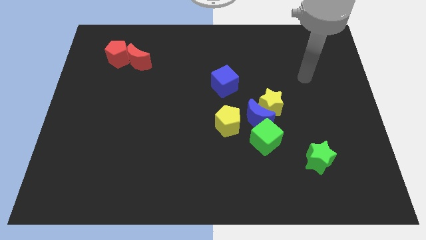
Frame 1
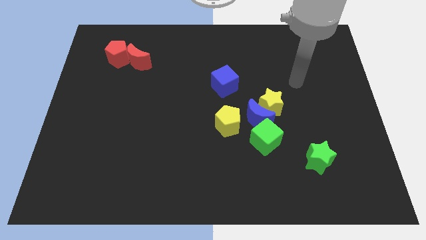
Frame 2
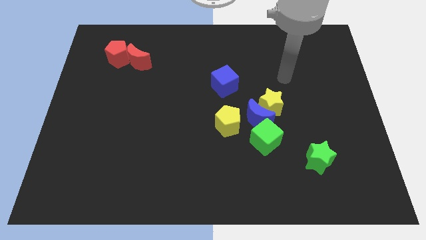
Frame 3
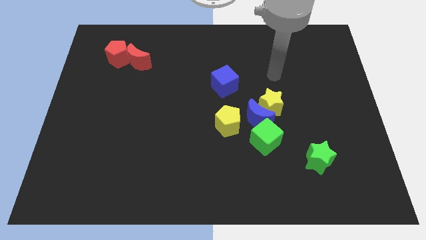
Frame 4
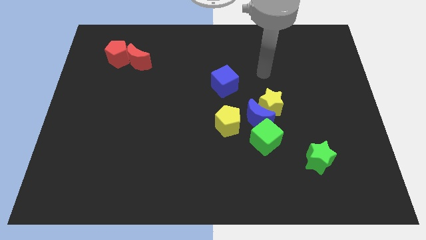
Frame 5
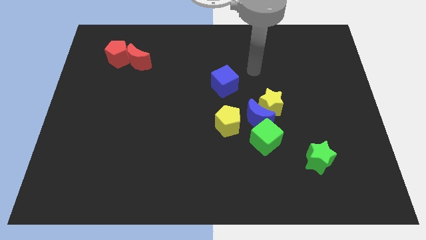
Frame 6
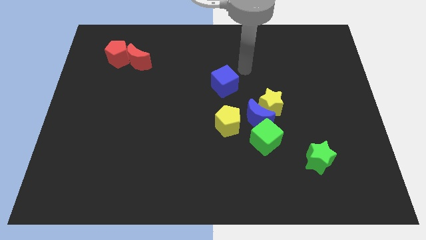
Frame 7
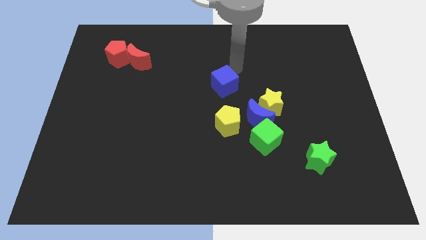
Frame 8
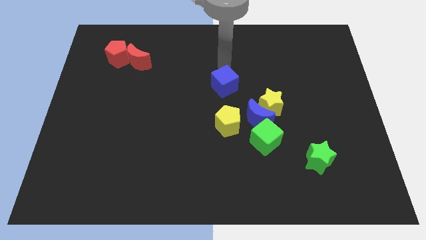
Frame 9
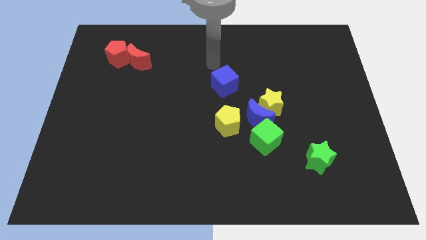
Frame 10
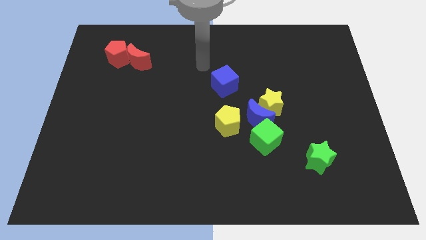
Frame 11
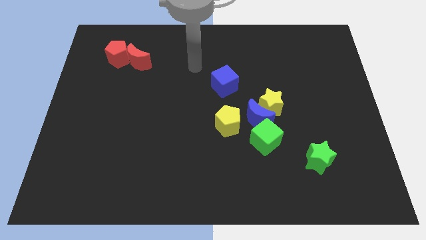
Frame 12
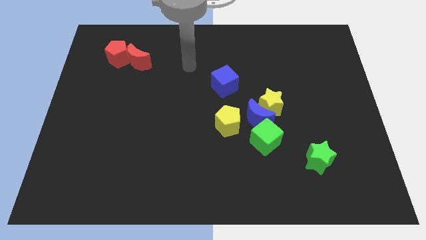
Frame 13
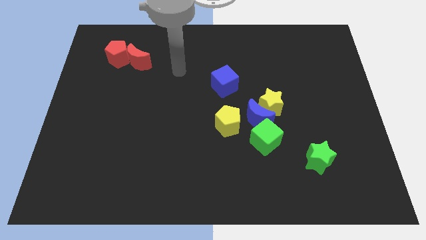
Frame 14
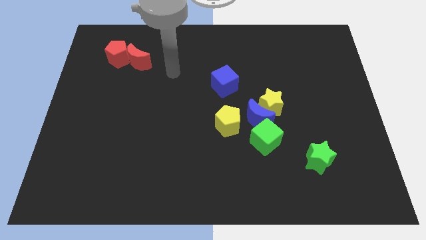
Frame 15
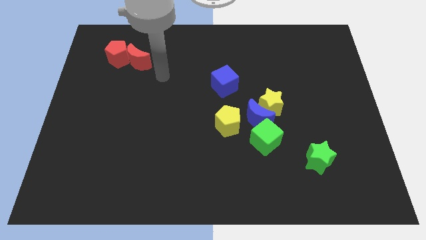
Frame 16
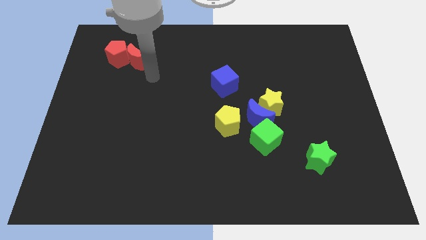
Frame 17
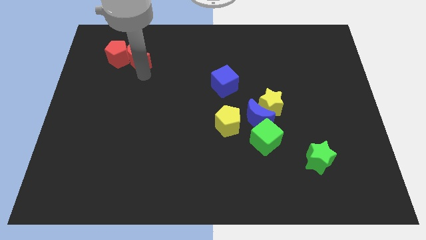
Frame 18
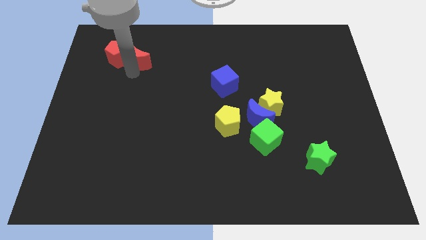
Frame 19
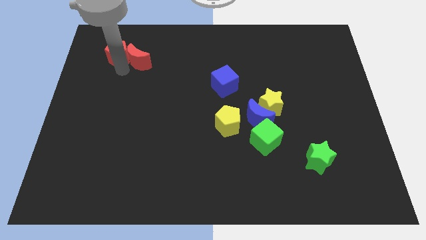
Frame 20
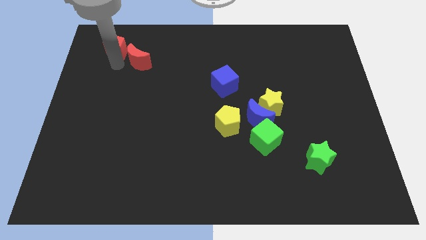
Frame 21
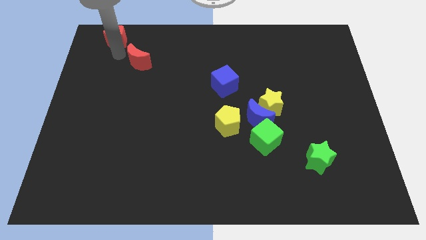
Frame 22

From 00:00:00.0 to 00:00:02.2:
separate the red moon from the red pentagon

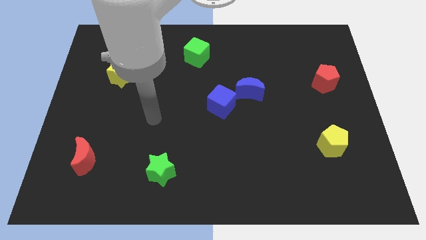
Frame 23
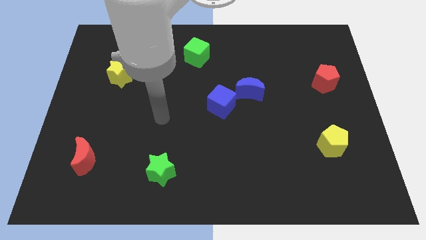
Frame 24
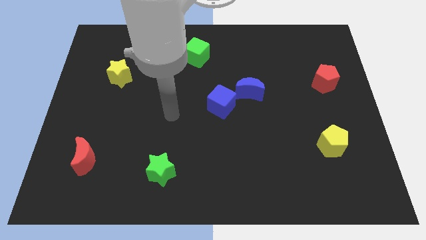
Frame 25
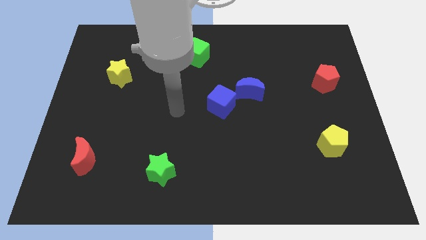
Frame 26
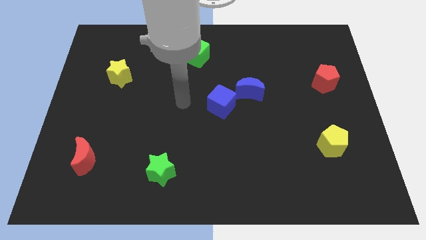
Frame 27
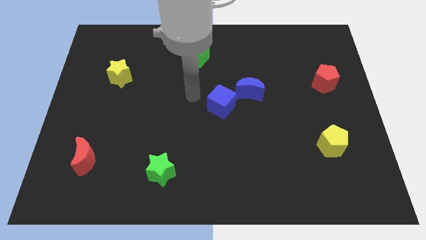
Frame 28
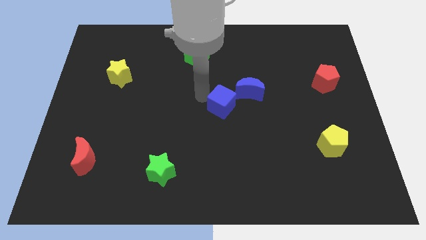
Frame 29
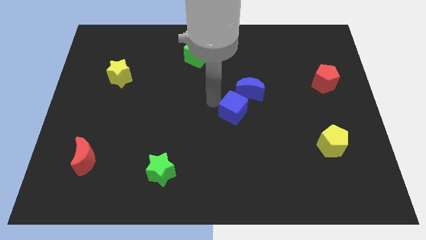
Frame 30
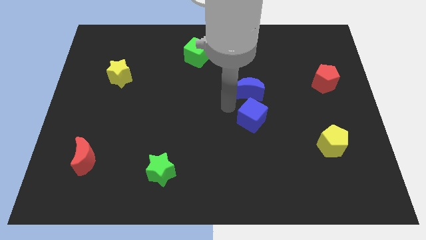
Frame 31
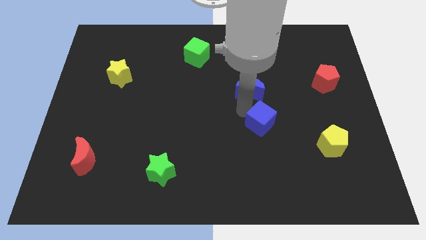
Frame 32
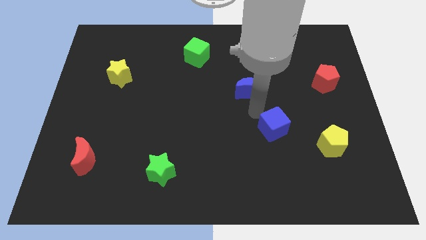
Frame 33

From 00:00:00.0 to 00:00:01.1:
pull the blue moon apart from the blue cube

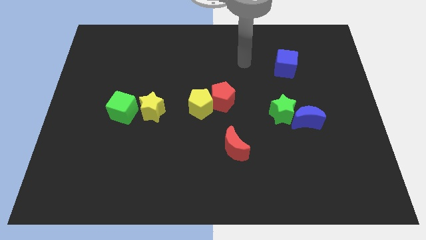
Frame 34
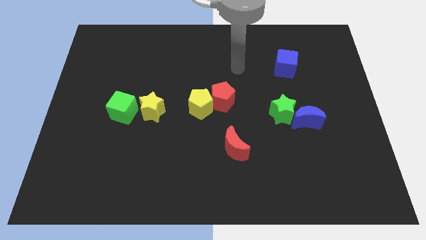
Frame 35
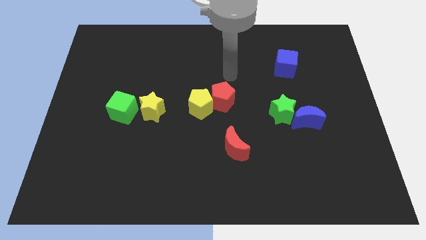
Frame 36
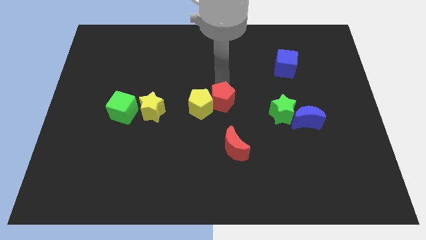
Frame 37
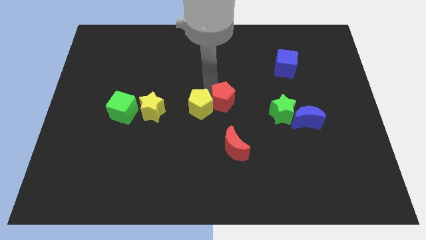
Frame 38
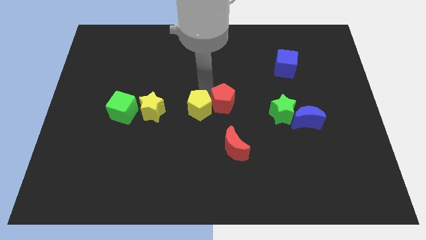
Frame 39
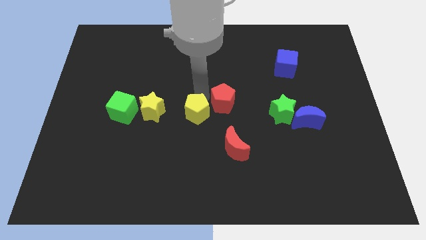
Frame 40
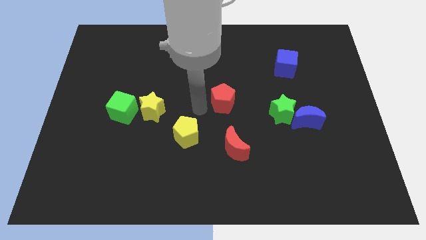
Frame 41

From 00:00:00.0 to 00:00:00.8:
separate the red pentagon from the yellow pentagon

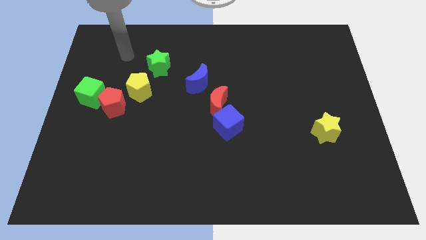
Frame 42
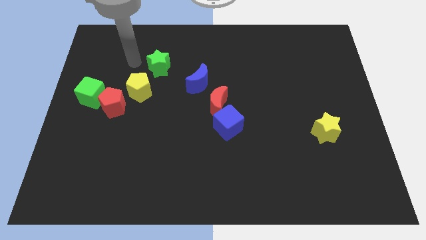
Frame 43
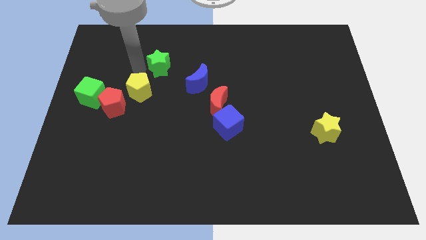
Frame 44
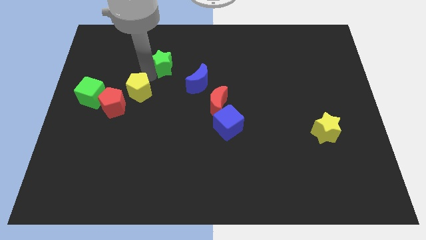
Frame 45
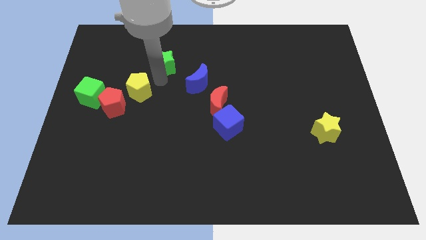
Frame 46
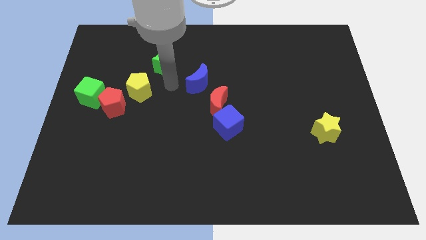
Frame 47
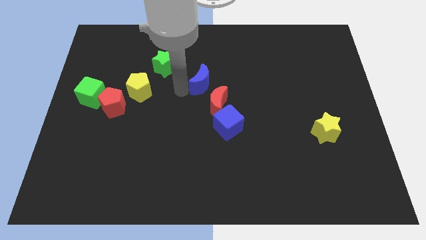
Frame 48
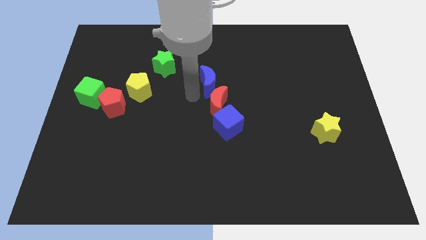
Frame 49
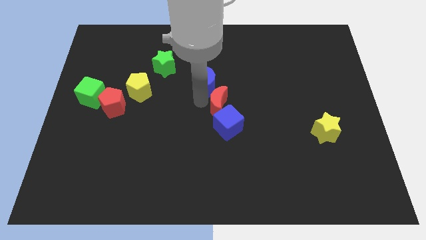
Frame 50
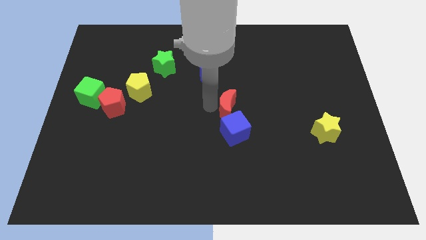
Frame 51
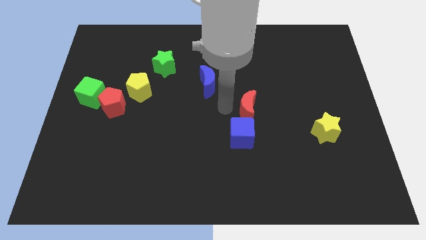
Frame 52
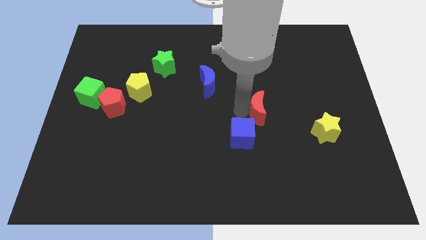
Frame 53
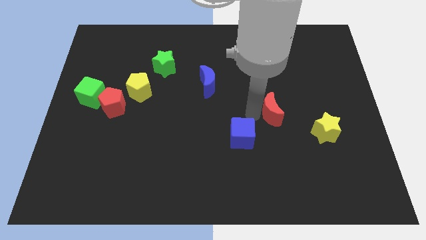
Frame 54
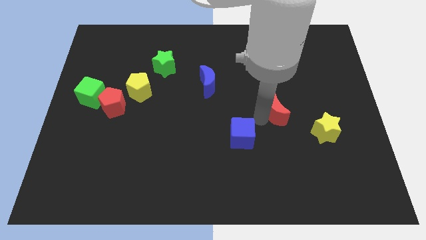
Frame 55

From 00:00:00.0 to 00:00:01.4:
separate the blue cube from the red moon

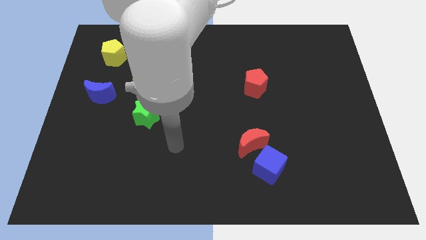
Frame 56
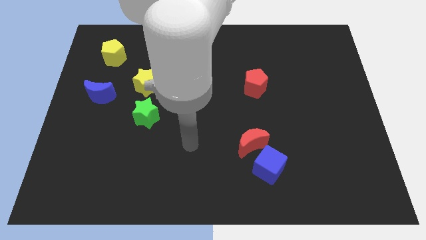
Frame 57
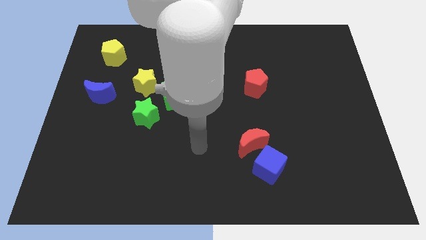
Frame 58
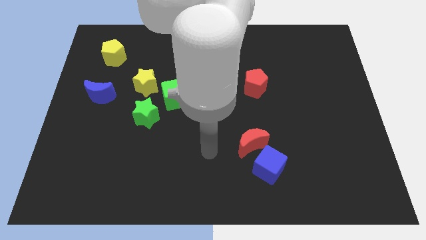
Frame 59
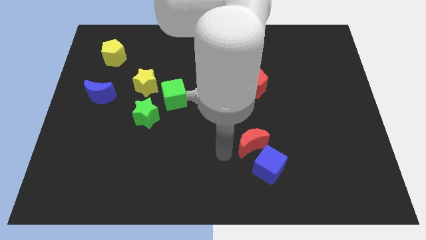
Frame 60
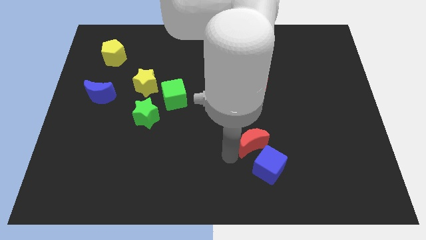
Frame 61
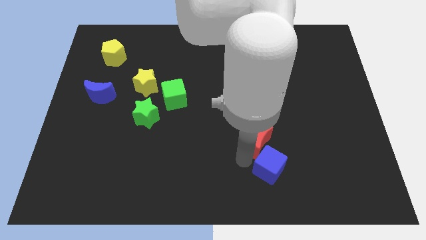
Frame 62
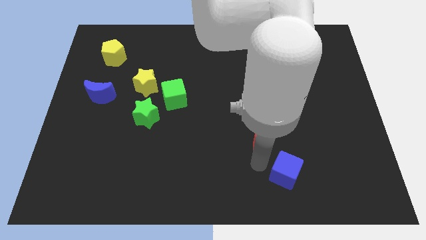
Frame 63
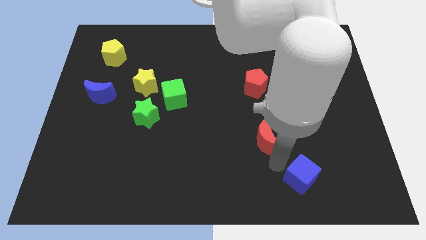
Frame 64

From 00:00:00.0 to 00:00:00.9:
move the red moon away from the blue cube

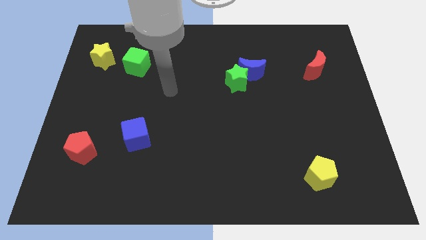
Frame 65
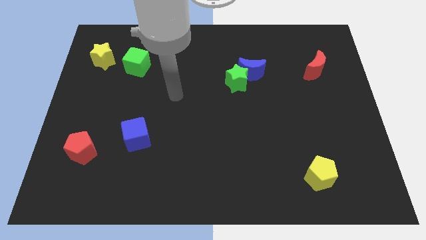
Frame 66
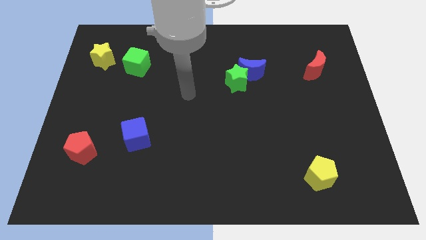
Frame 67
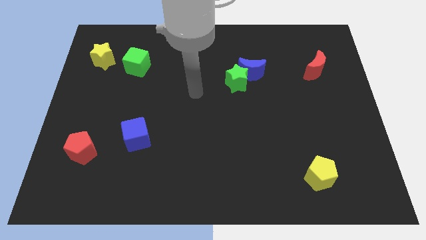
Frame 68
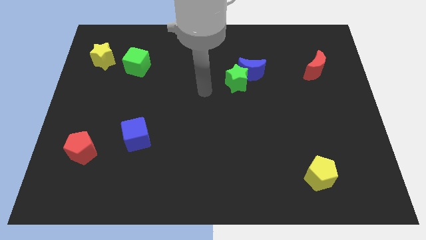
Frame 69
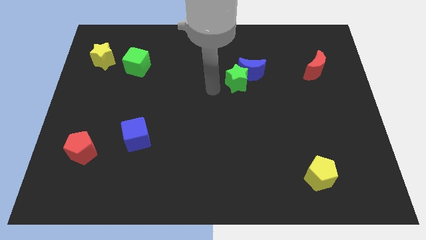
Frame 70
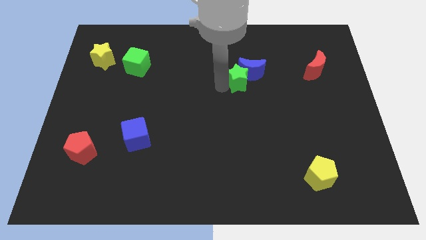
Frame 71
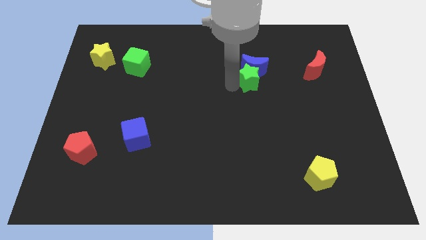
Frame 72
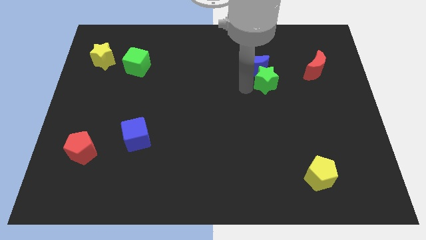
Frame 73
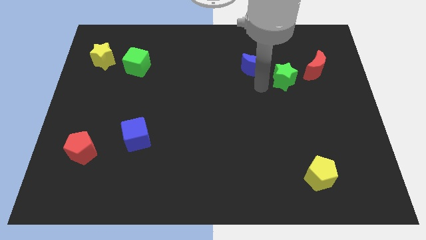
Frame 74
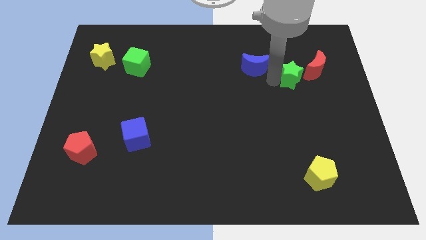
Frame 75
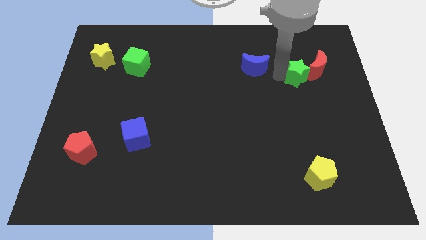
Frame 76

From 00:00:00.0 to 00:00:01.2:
separate the blue moon from the green star

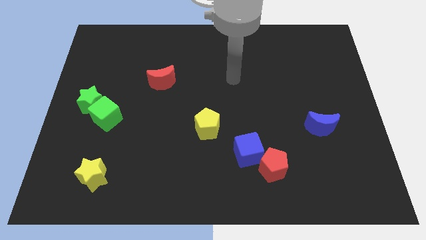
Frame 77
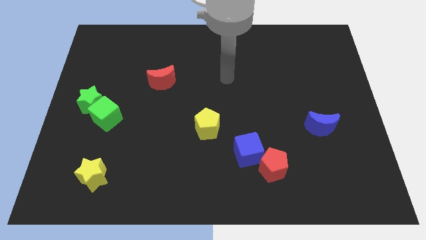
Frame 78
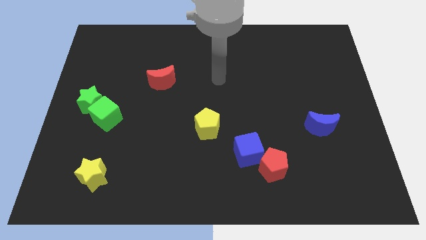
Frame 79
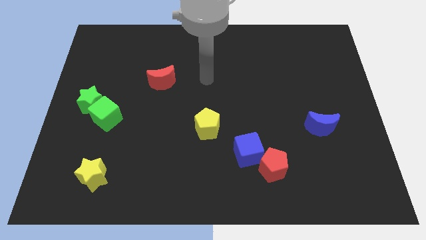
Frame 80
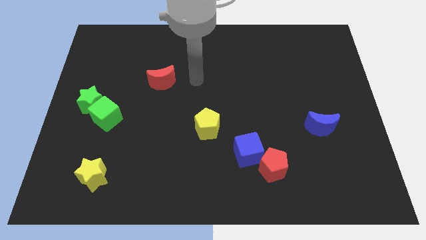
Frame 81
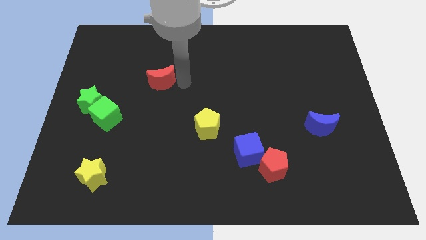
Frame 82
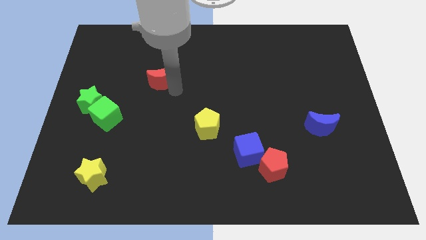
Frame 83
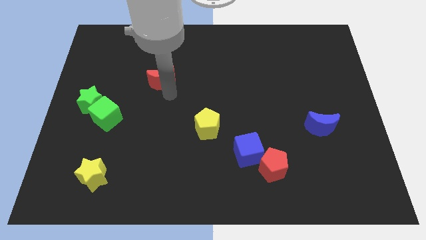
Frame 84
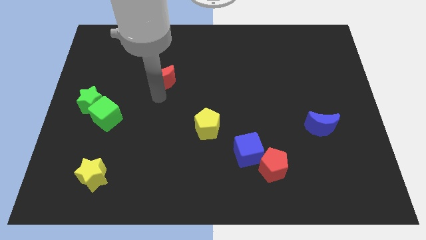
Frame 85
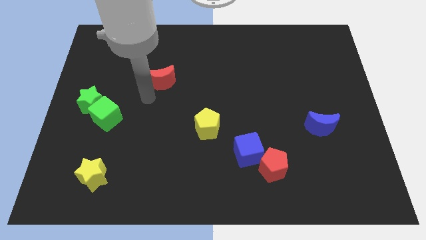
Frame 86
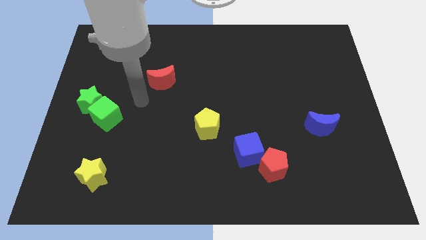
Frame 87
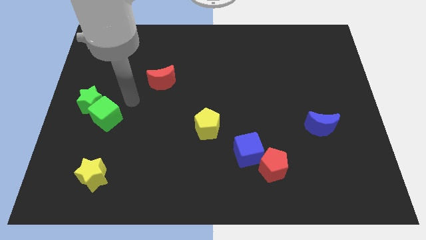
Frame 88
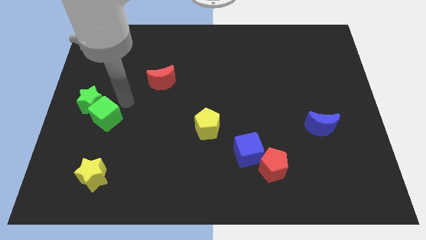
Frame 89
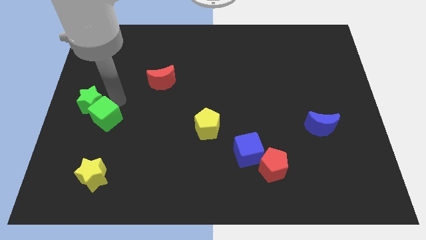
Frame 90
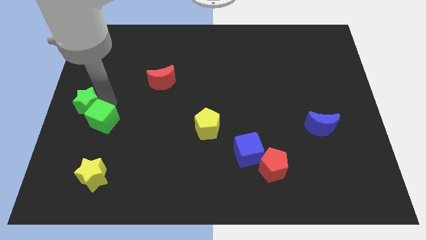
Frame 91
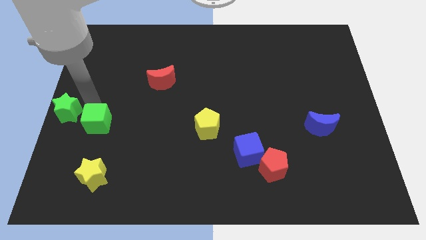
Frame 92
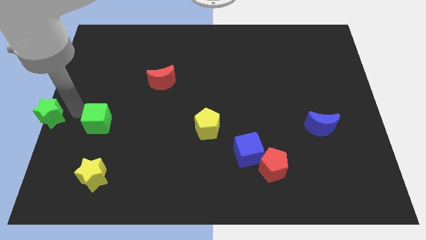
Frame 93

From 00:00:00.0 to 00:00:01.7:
move the green cube away from the green star

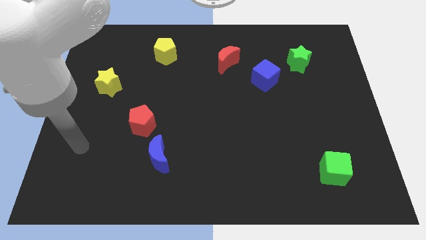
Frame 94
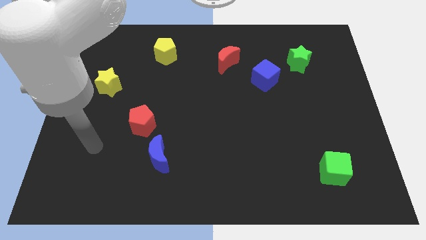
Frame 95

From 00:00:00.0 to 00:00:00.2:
pull the red pentagon apart from the blue moon
